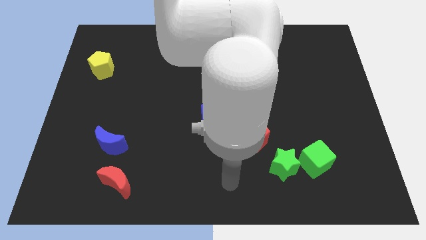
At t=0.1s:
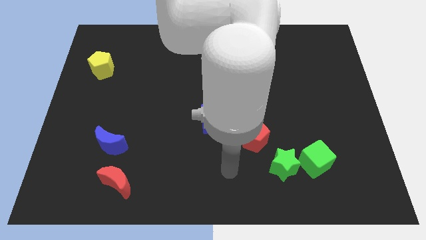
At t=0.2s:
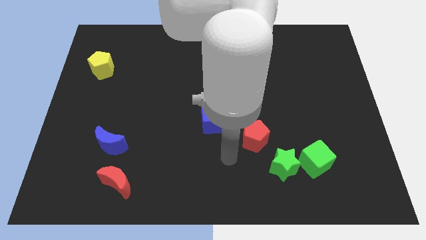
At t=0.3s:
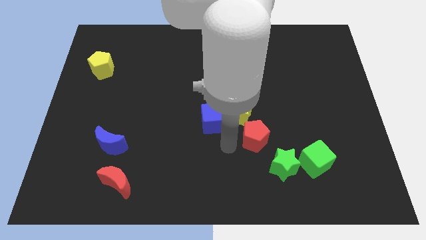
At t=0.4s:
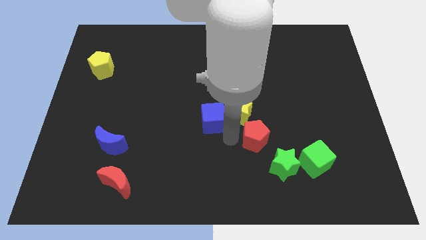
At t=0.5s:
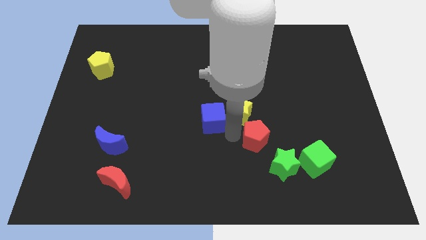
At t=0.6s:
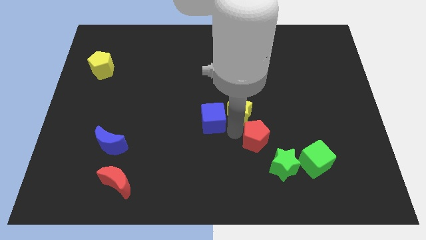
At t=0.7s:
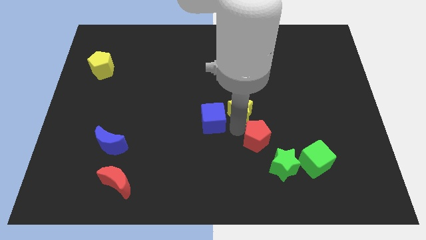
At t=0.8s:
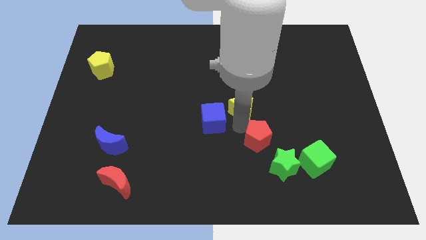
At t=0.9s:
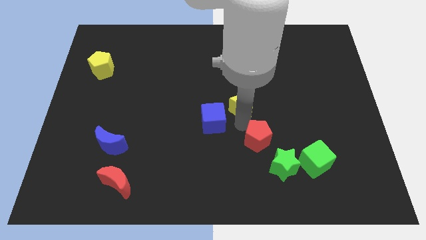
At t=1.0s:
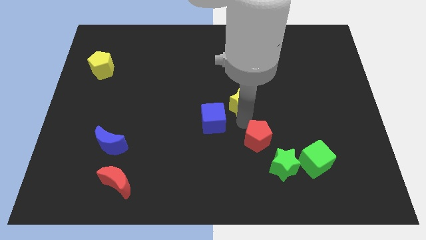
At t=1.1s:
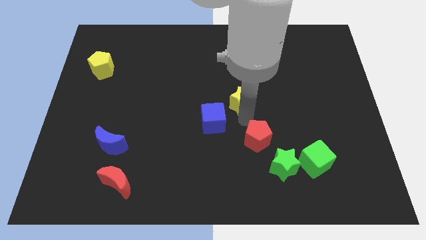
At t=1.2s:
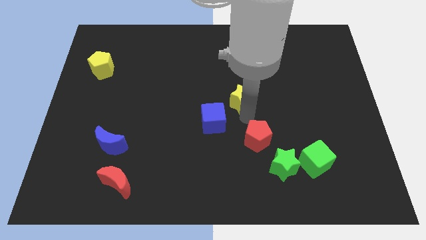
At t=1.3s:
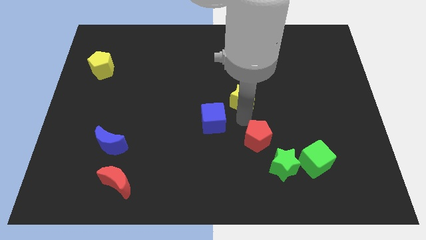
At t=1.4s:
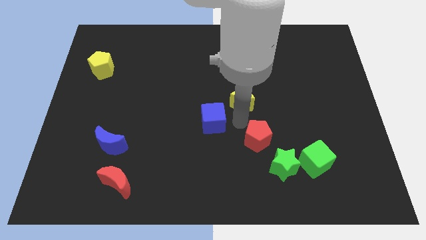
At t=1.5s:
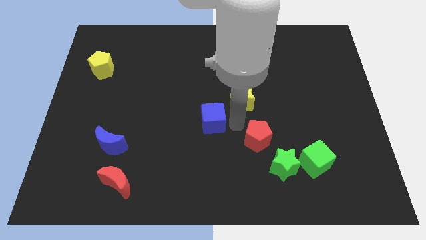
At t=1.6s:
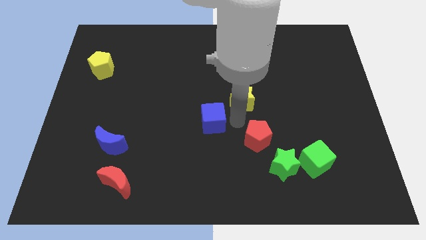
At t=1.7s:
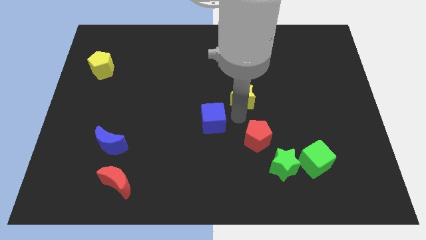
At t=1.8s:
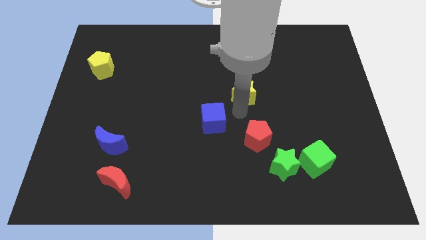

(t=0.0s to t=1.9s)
separate the yellow star from the blue cube and red pentagon

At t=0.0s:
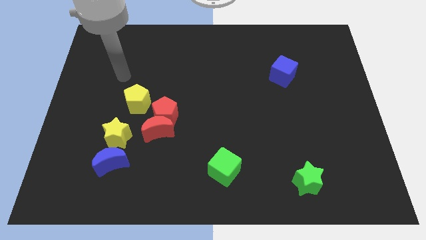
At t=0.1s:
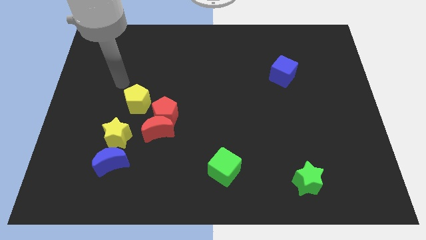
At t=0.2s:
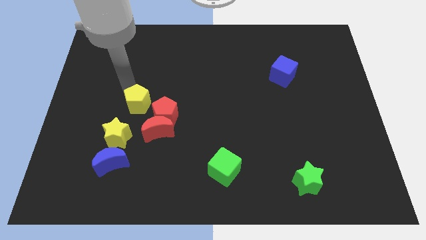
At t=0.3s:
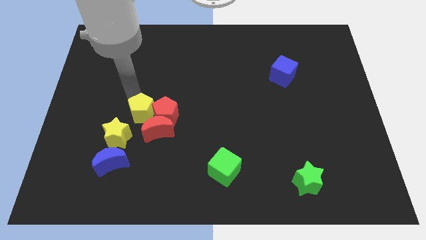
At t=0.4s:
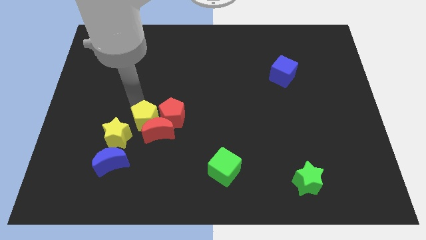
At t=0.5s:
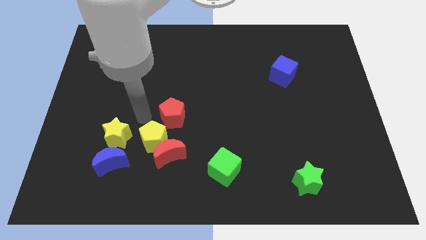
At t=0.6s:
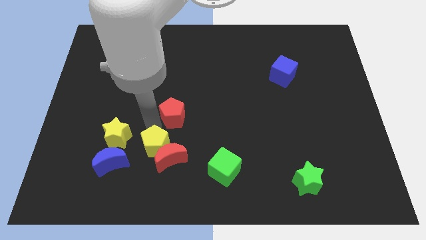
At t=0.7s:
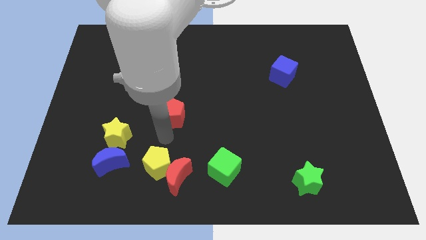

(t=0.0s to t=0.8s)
move the red pentagon away from the red moon and yellow pentagon

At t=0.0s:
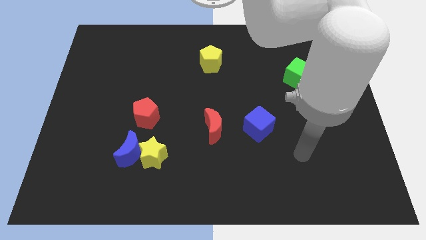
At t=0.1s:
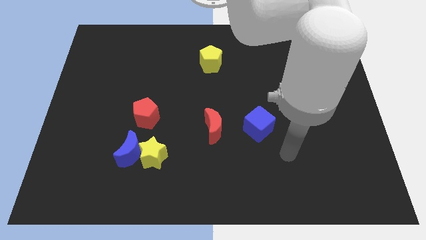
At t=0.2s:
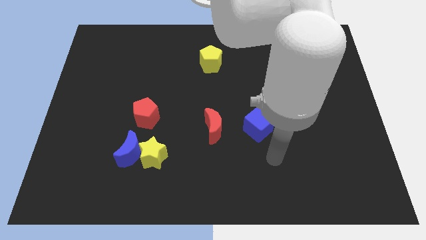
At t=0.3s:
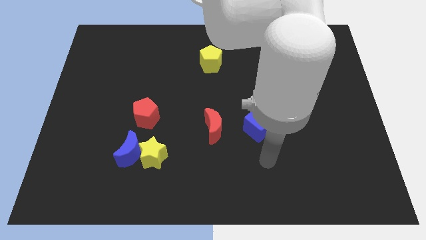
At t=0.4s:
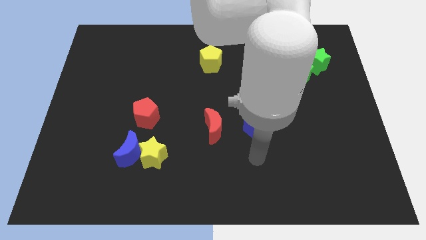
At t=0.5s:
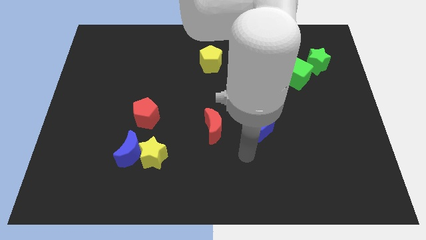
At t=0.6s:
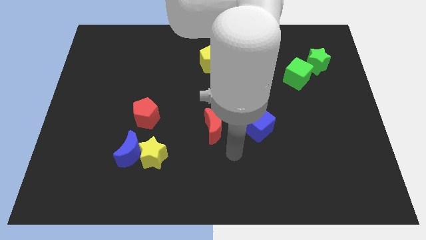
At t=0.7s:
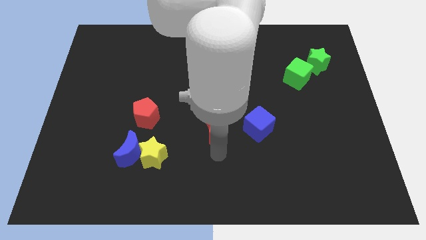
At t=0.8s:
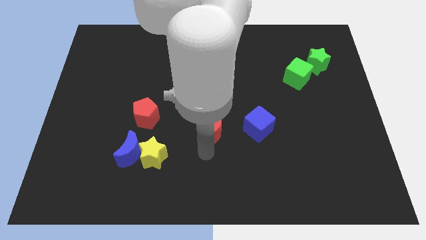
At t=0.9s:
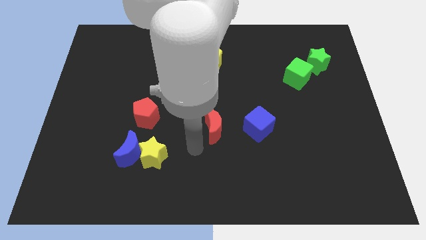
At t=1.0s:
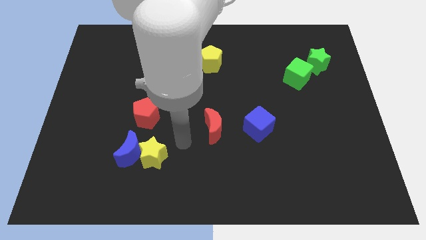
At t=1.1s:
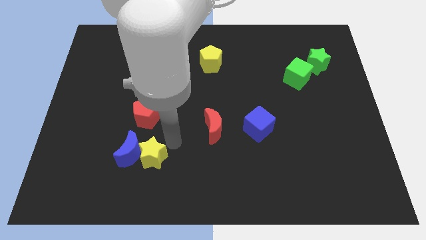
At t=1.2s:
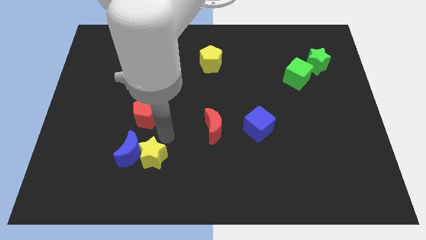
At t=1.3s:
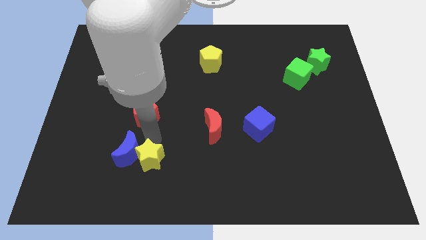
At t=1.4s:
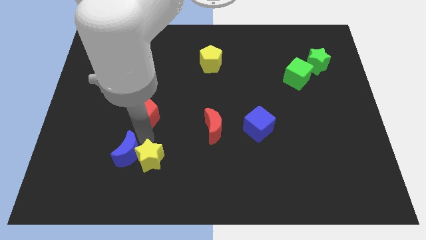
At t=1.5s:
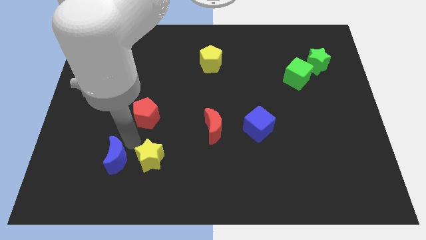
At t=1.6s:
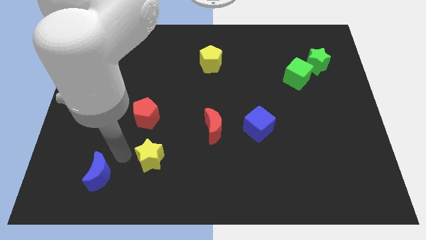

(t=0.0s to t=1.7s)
move the yellow star away from the blue moon

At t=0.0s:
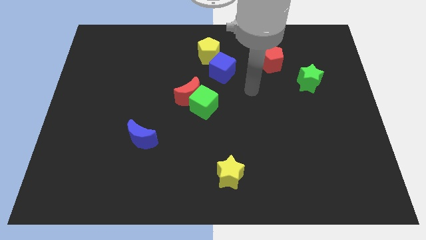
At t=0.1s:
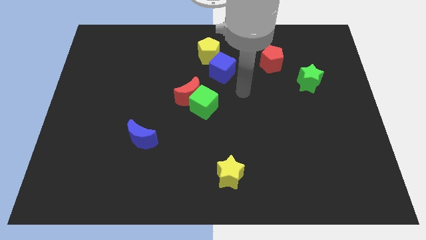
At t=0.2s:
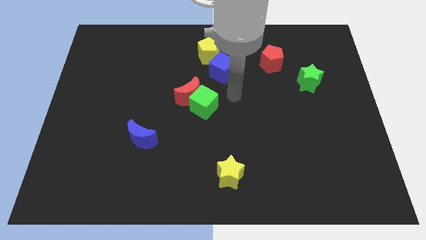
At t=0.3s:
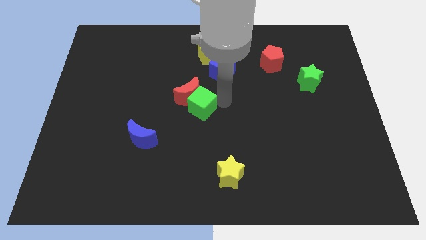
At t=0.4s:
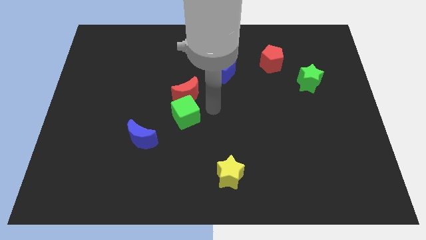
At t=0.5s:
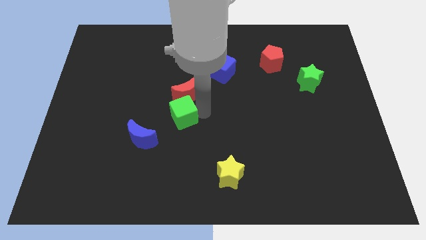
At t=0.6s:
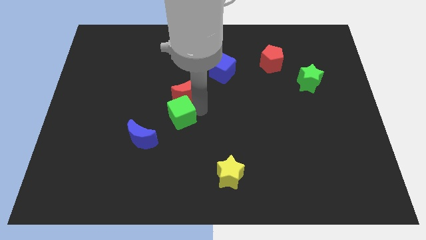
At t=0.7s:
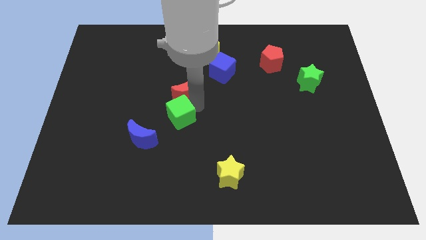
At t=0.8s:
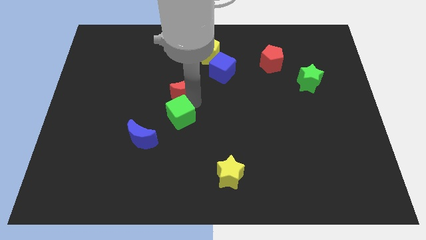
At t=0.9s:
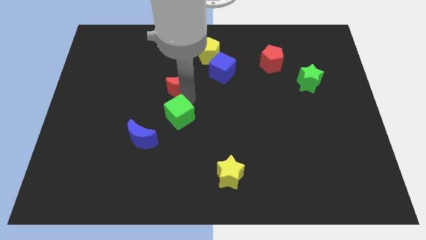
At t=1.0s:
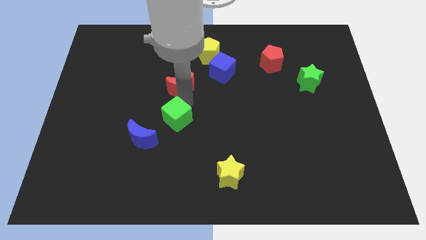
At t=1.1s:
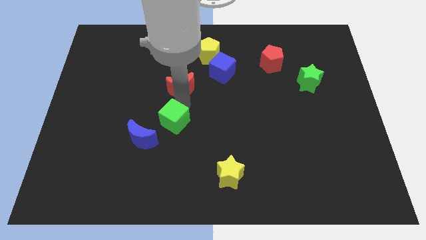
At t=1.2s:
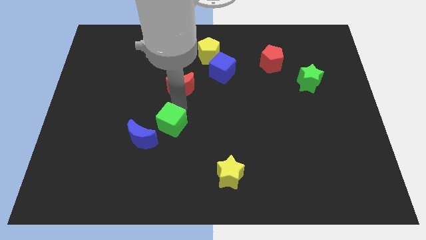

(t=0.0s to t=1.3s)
pull the red moon apart from the green cube

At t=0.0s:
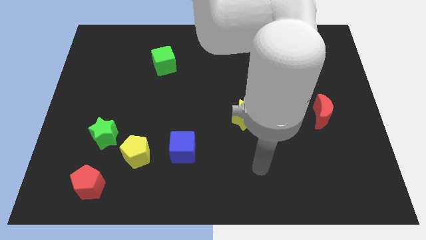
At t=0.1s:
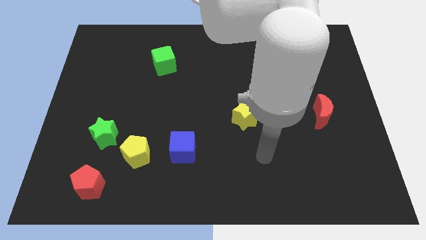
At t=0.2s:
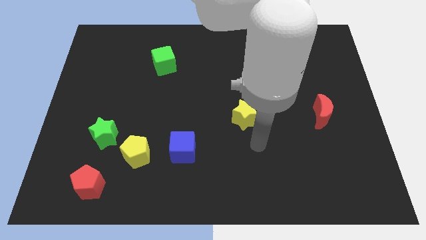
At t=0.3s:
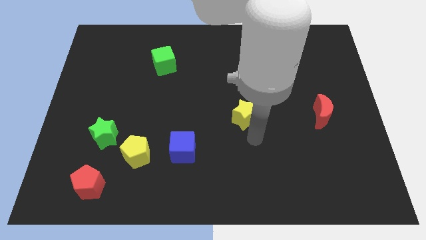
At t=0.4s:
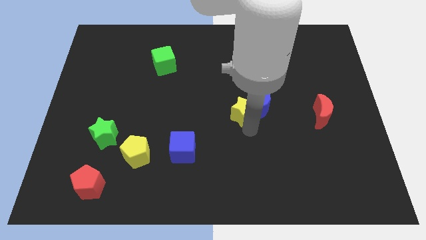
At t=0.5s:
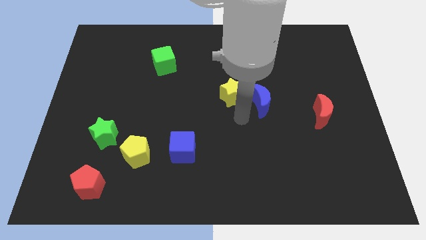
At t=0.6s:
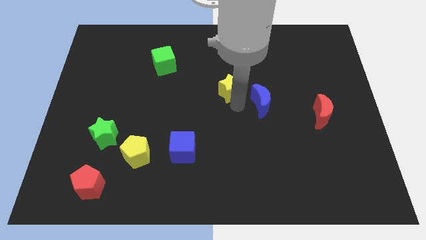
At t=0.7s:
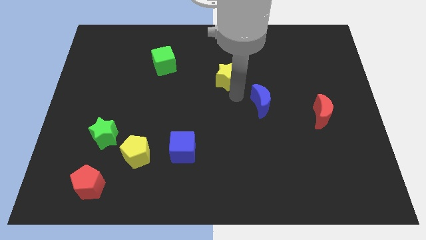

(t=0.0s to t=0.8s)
pull the blue moon apart from the yellow star

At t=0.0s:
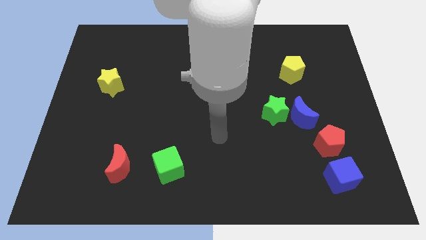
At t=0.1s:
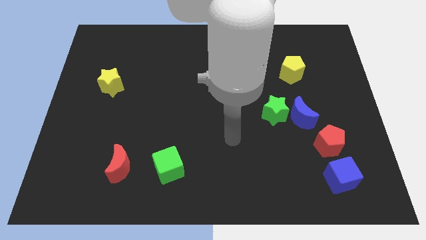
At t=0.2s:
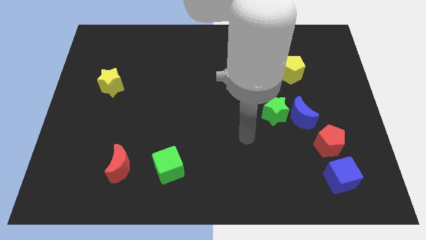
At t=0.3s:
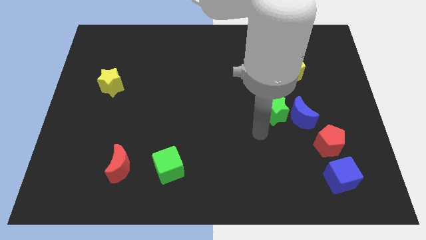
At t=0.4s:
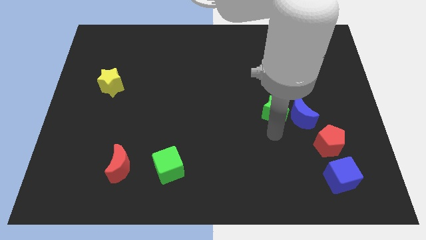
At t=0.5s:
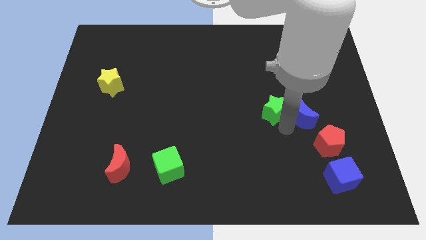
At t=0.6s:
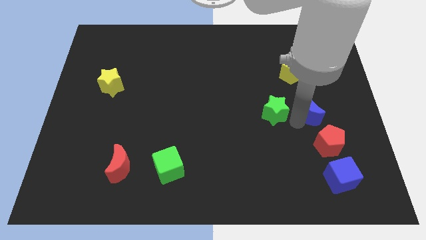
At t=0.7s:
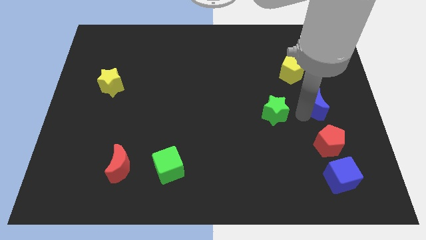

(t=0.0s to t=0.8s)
separate the green star from the blue moon

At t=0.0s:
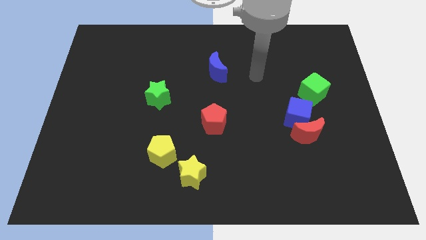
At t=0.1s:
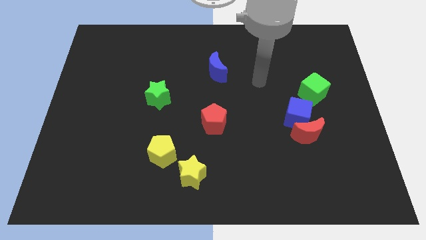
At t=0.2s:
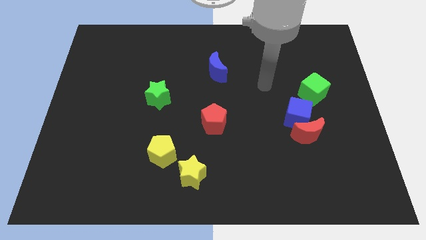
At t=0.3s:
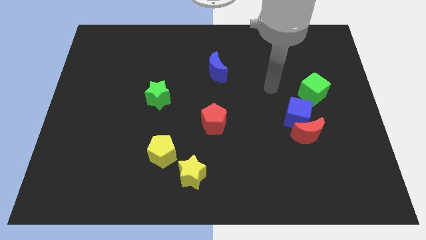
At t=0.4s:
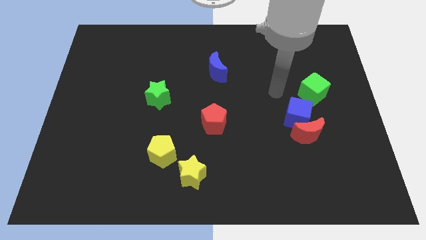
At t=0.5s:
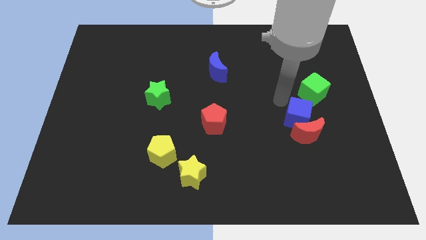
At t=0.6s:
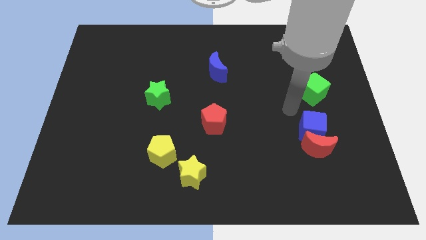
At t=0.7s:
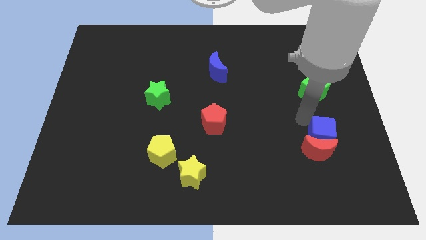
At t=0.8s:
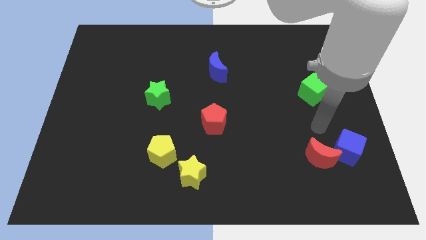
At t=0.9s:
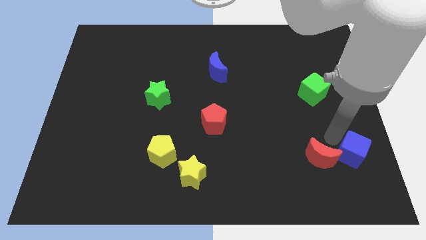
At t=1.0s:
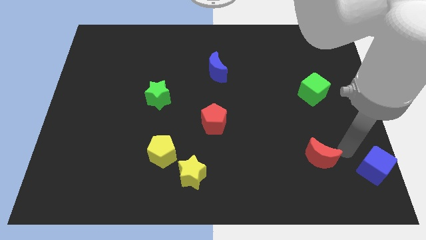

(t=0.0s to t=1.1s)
separate the red moon from the blue cube

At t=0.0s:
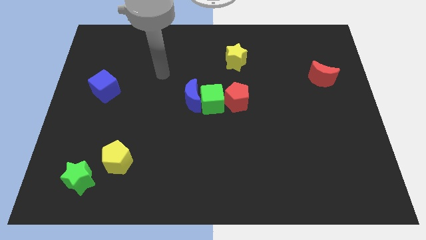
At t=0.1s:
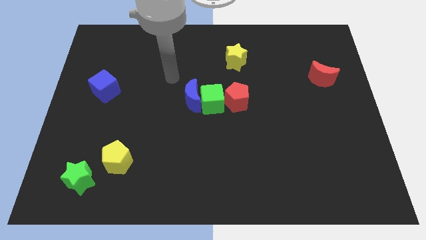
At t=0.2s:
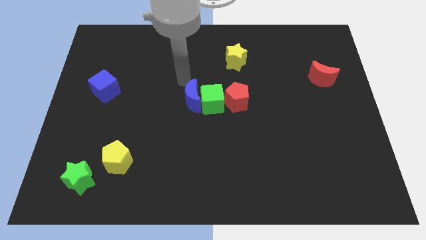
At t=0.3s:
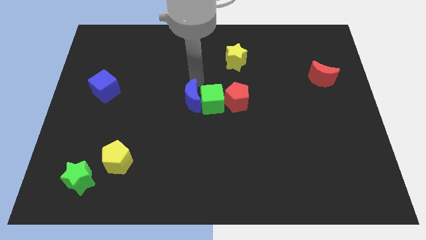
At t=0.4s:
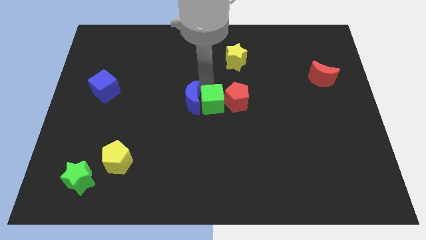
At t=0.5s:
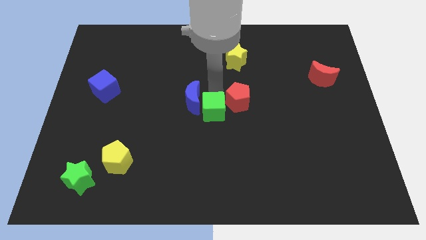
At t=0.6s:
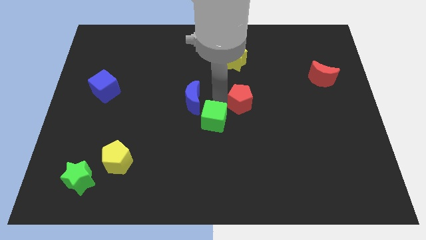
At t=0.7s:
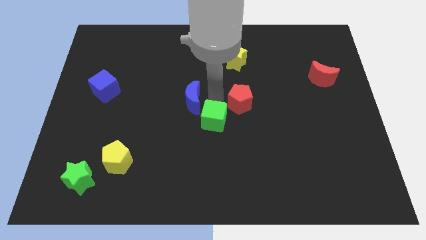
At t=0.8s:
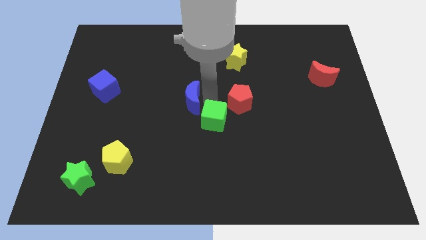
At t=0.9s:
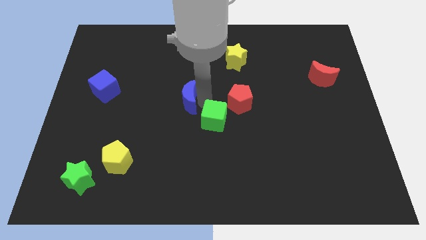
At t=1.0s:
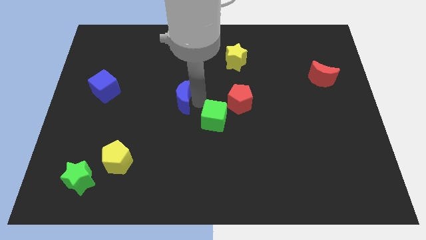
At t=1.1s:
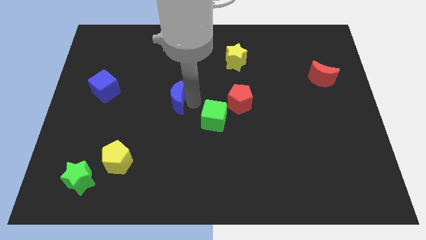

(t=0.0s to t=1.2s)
pull the blue moon apart from the green cube
